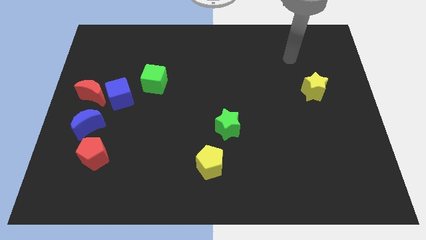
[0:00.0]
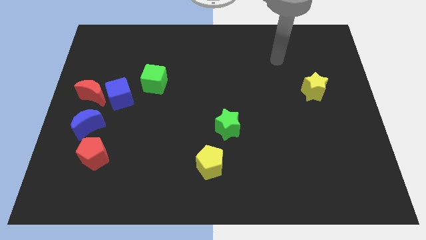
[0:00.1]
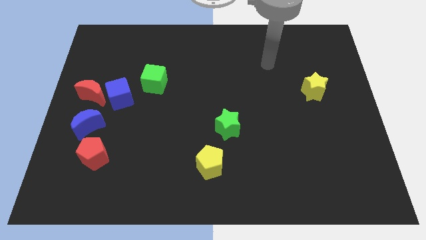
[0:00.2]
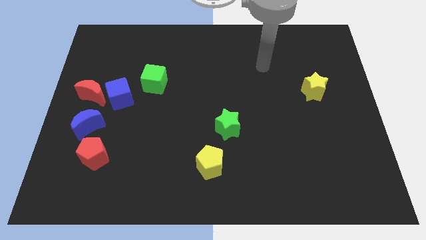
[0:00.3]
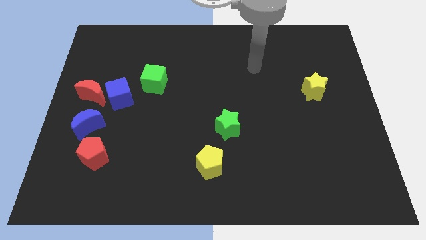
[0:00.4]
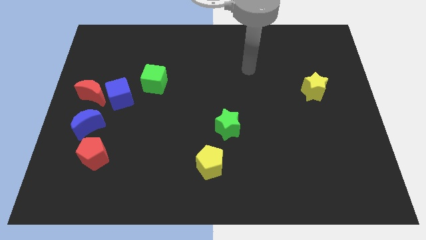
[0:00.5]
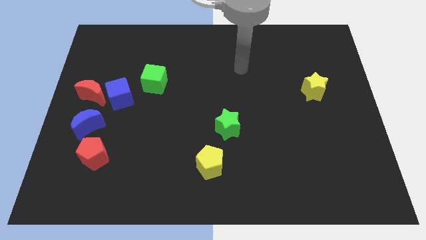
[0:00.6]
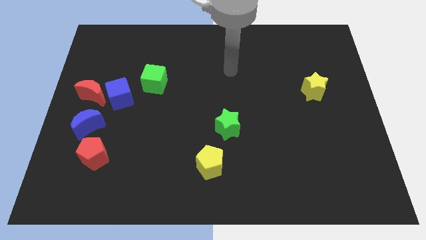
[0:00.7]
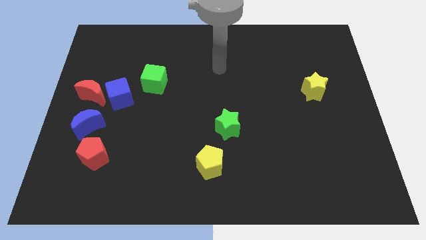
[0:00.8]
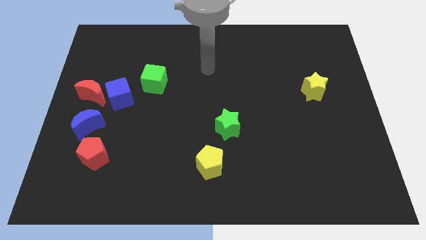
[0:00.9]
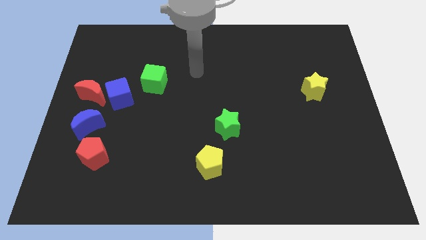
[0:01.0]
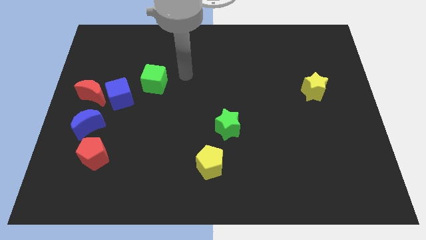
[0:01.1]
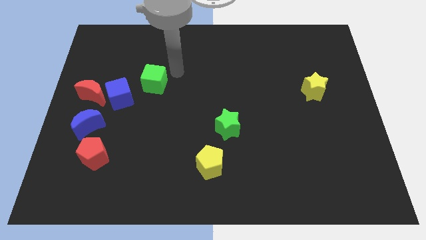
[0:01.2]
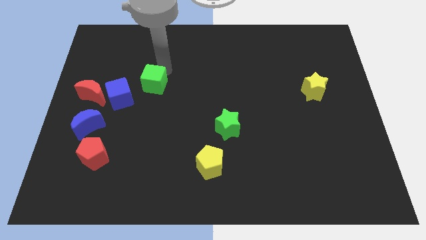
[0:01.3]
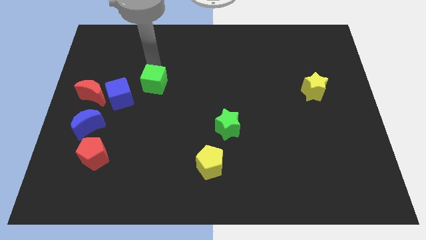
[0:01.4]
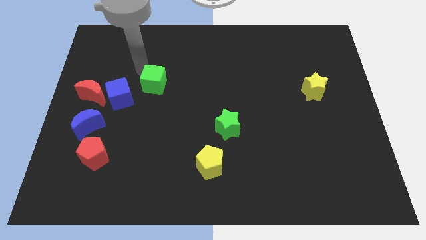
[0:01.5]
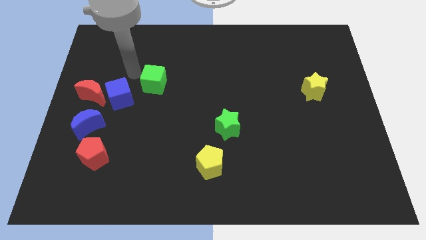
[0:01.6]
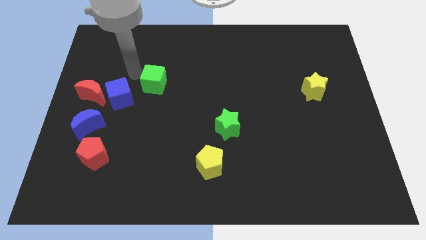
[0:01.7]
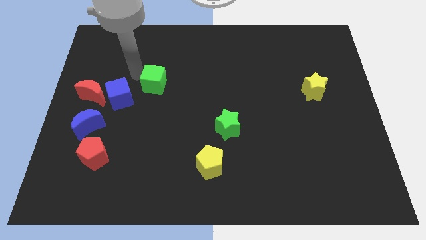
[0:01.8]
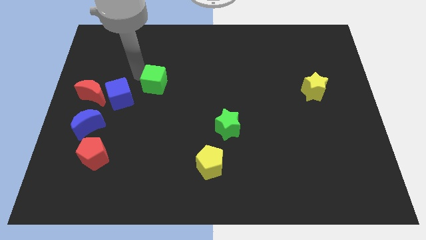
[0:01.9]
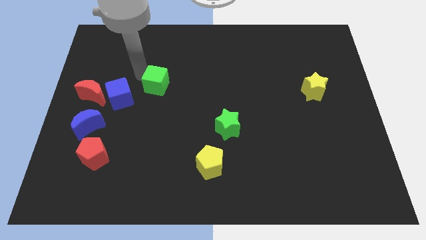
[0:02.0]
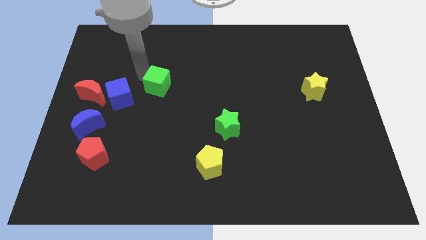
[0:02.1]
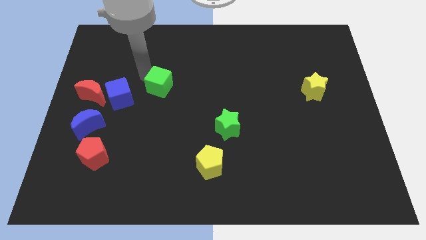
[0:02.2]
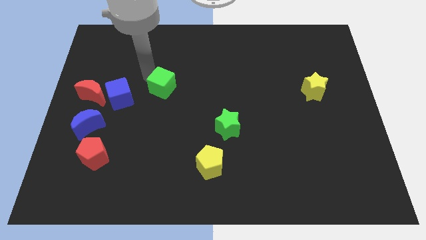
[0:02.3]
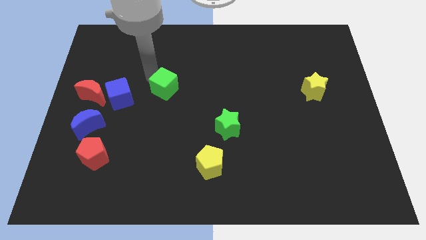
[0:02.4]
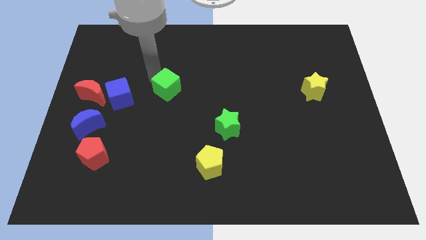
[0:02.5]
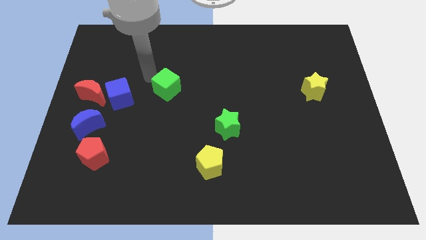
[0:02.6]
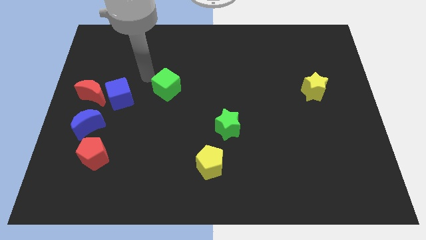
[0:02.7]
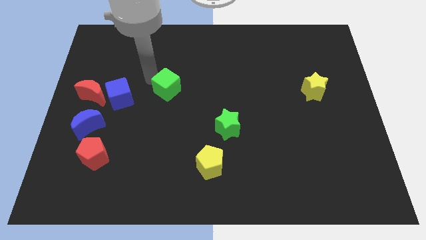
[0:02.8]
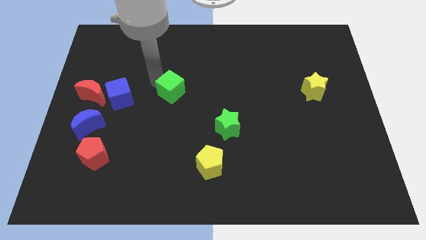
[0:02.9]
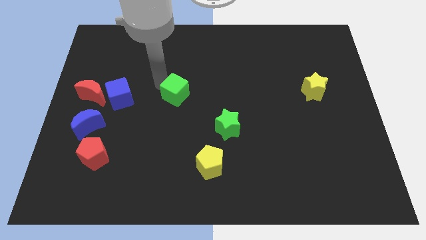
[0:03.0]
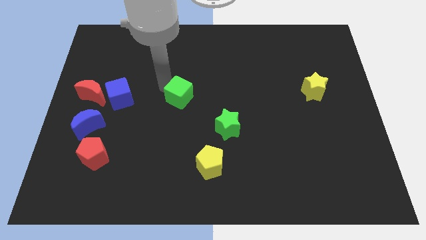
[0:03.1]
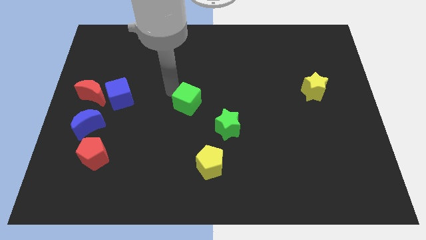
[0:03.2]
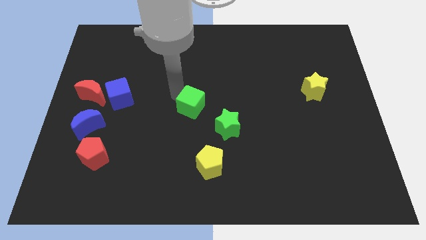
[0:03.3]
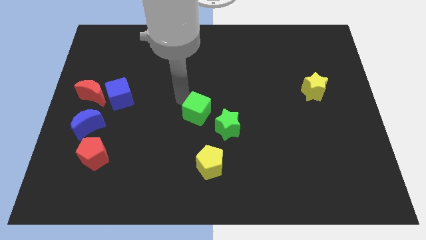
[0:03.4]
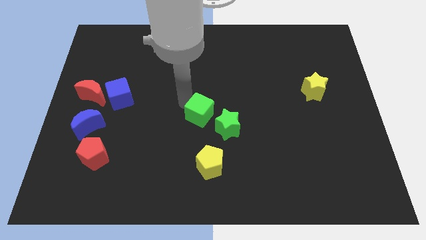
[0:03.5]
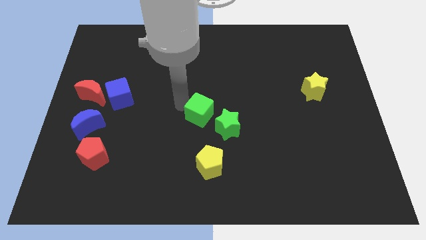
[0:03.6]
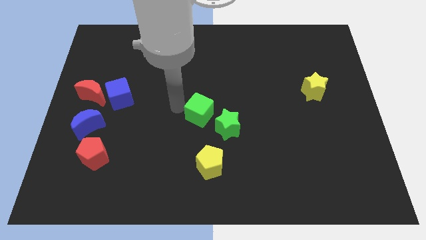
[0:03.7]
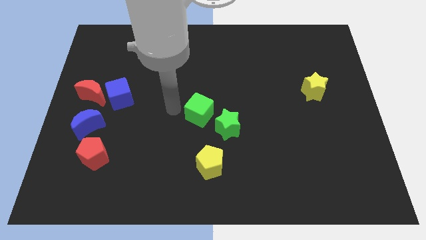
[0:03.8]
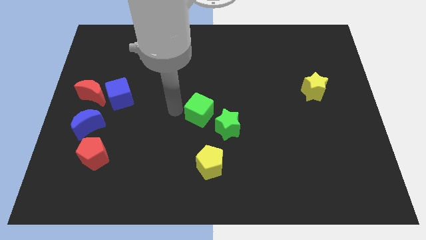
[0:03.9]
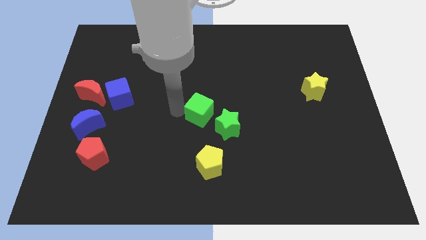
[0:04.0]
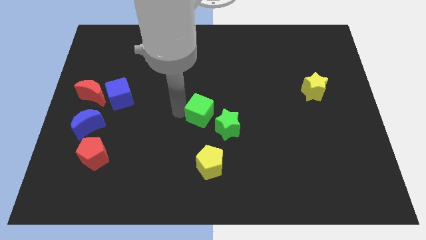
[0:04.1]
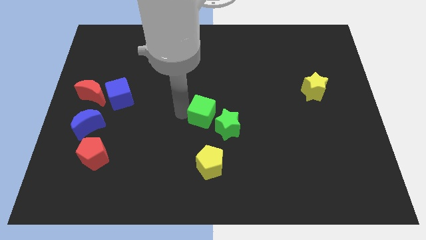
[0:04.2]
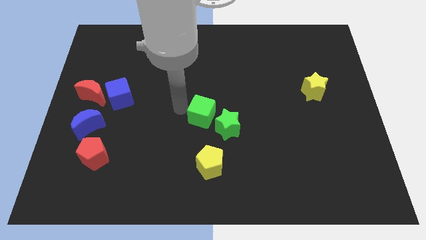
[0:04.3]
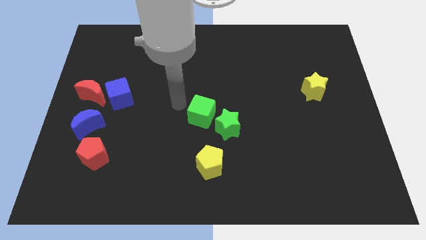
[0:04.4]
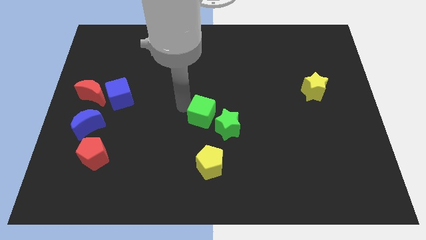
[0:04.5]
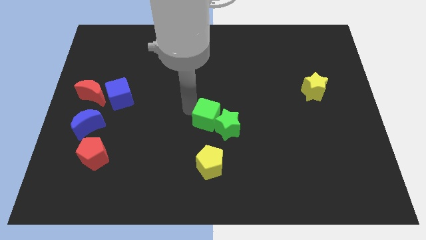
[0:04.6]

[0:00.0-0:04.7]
slide the green cube close to the green star

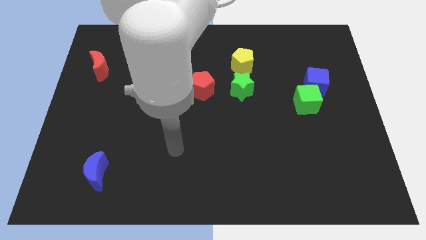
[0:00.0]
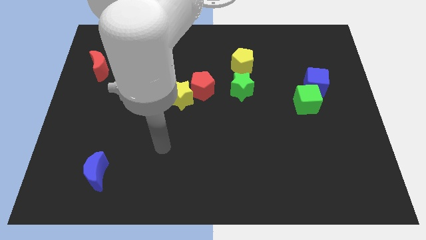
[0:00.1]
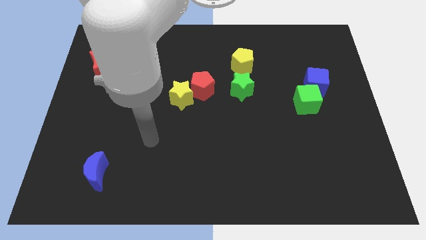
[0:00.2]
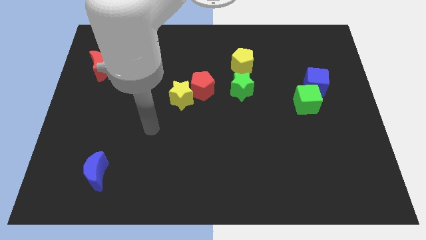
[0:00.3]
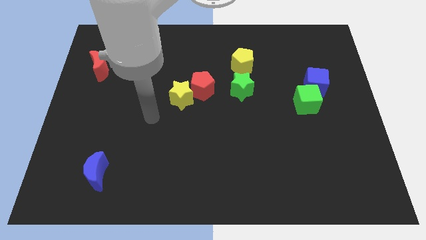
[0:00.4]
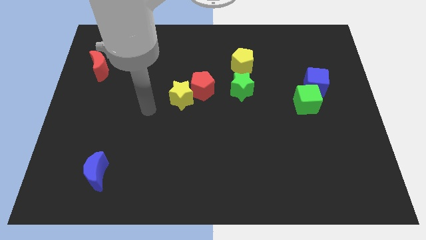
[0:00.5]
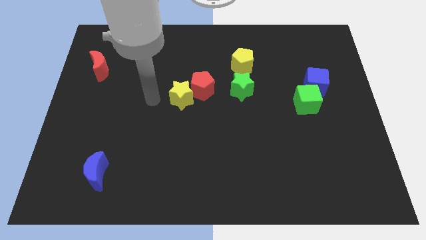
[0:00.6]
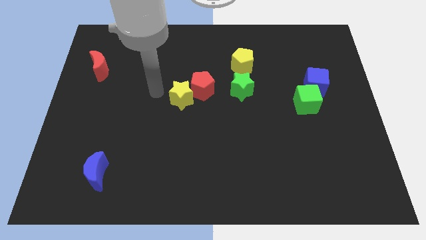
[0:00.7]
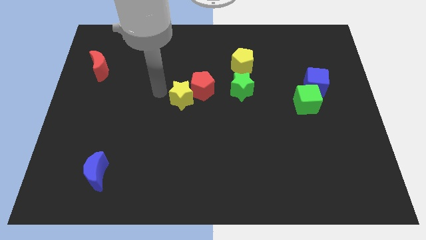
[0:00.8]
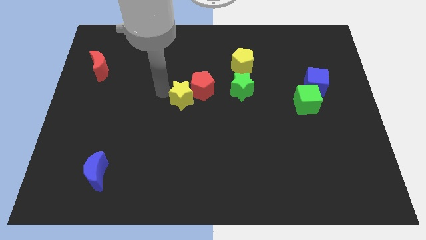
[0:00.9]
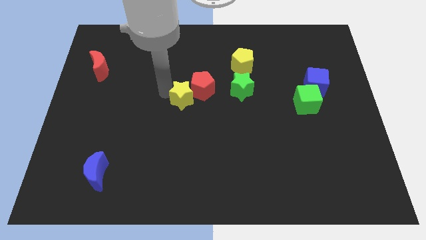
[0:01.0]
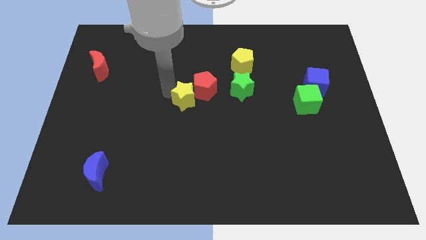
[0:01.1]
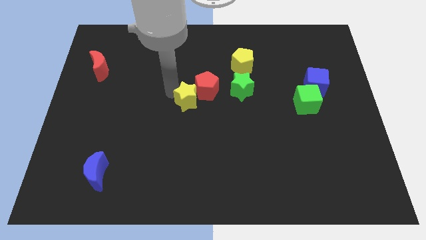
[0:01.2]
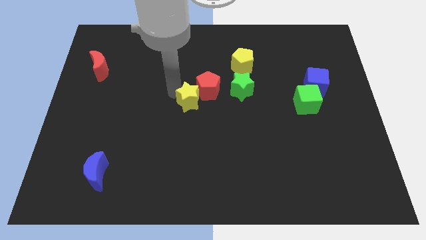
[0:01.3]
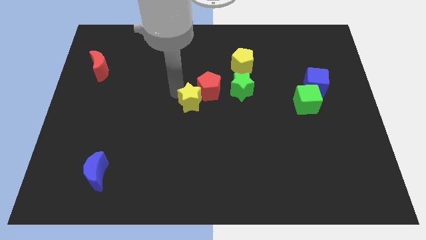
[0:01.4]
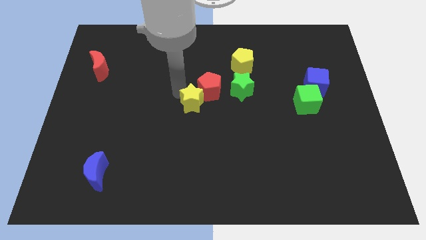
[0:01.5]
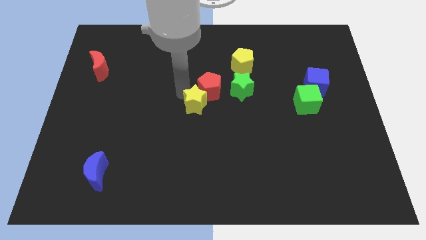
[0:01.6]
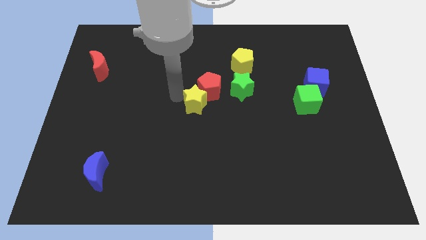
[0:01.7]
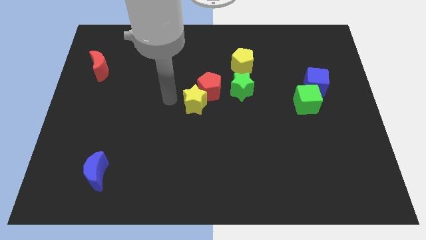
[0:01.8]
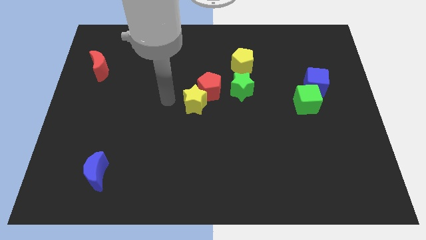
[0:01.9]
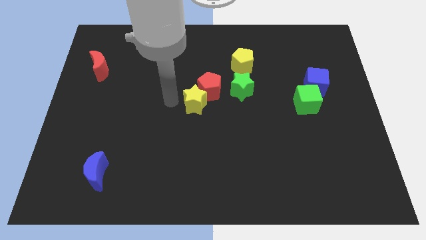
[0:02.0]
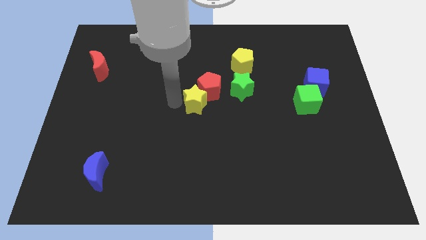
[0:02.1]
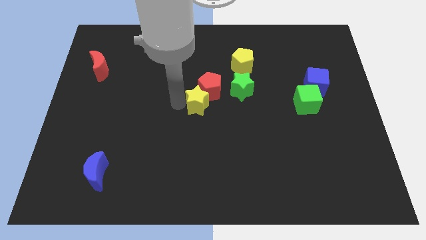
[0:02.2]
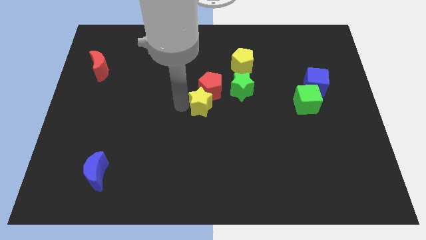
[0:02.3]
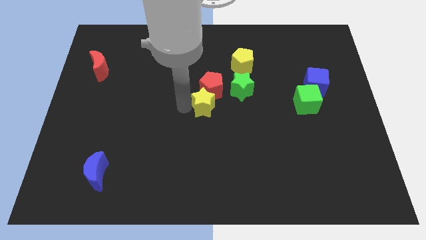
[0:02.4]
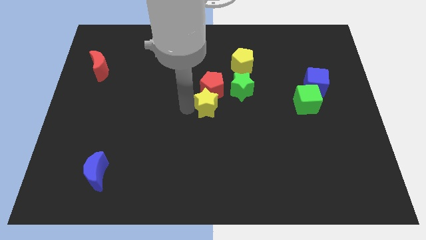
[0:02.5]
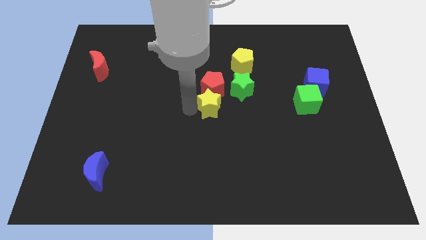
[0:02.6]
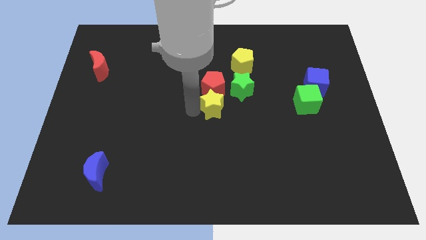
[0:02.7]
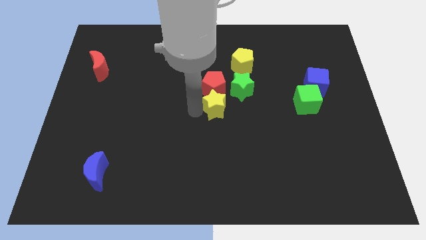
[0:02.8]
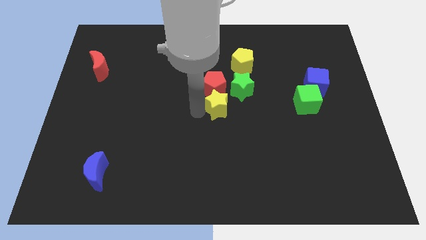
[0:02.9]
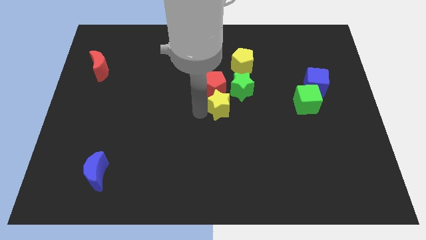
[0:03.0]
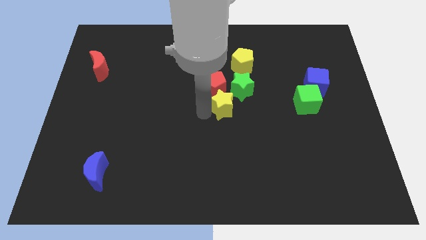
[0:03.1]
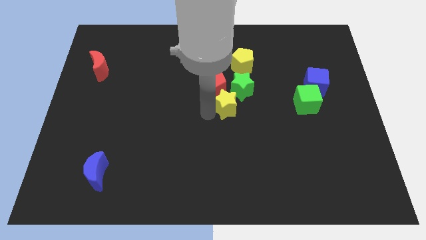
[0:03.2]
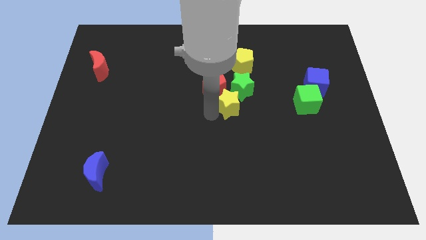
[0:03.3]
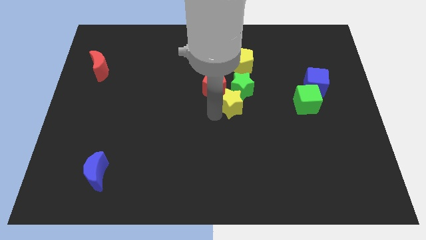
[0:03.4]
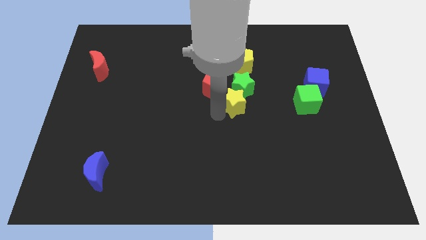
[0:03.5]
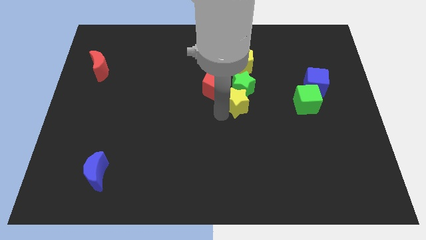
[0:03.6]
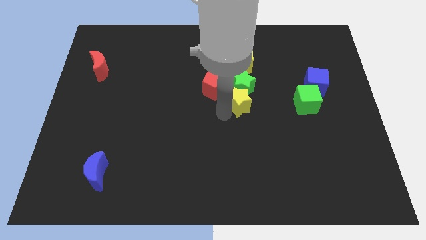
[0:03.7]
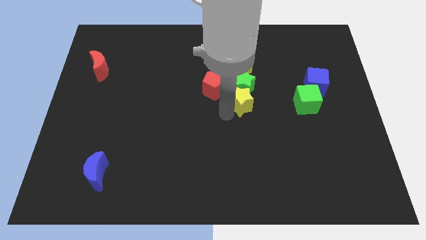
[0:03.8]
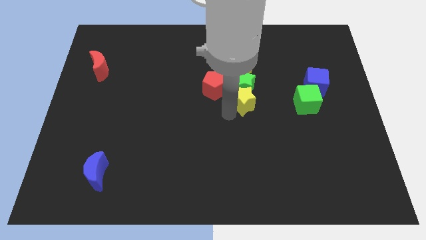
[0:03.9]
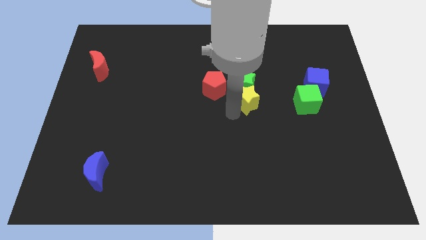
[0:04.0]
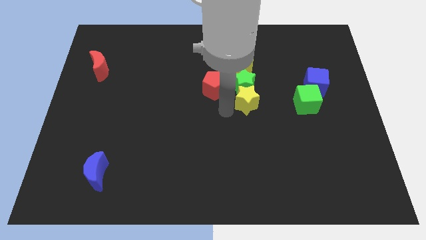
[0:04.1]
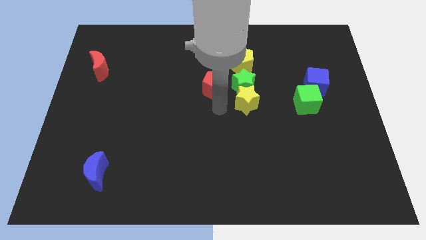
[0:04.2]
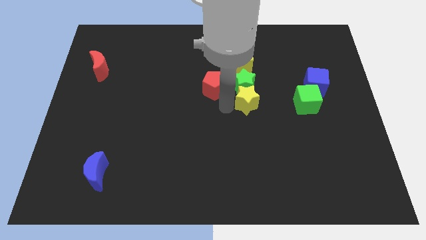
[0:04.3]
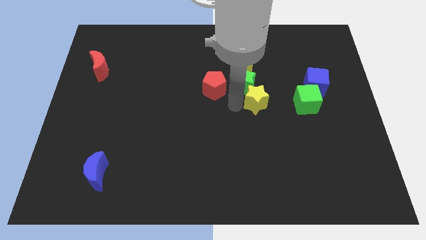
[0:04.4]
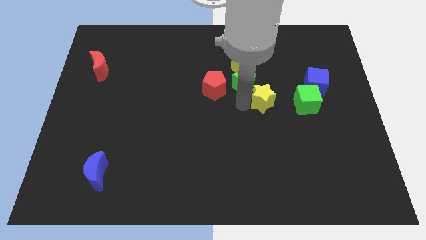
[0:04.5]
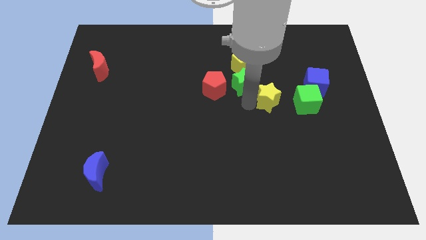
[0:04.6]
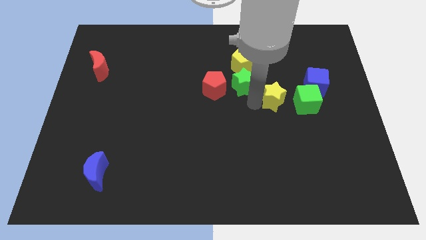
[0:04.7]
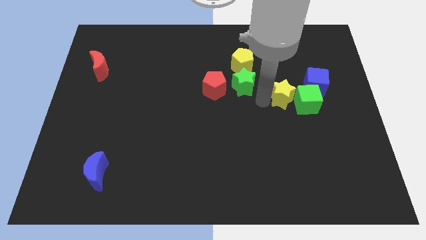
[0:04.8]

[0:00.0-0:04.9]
move the yellow star towards the green cube
